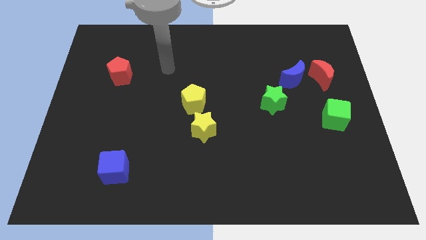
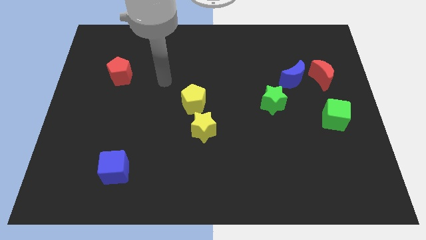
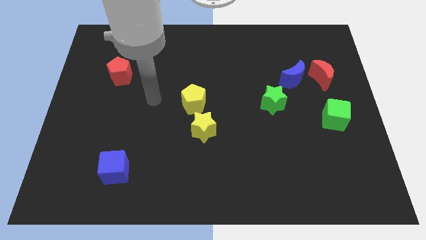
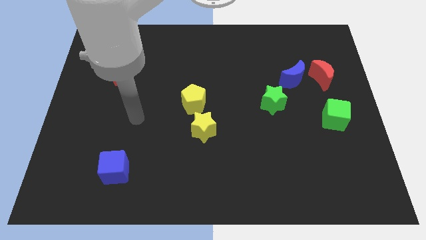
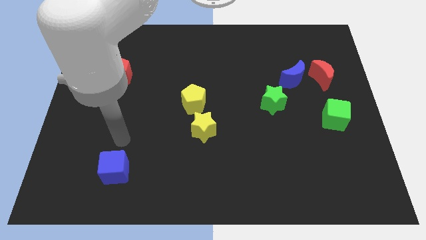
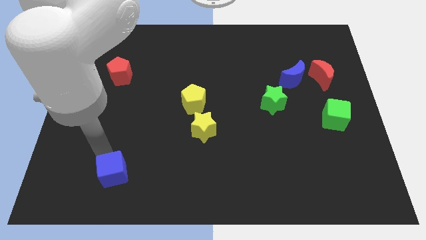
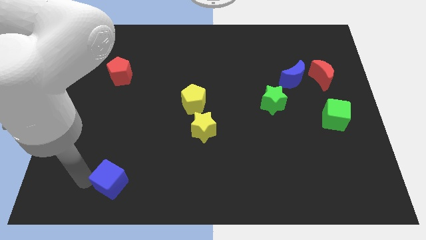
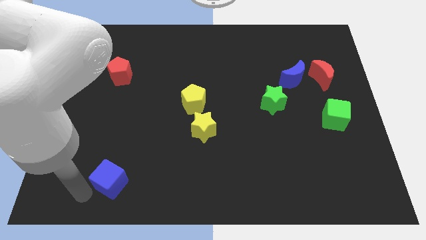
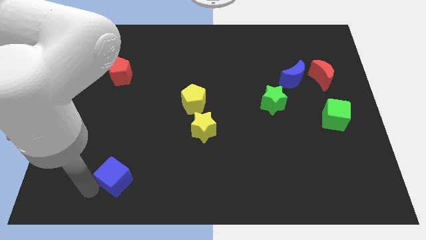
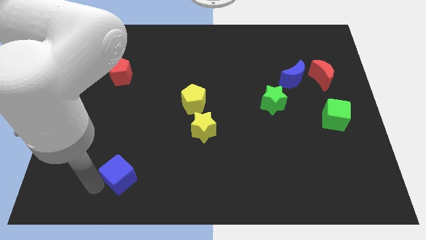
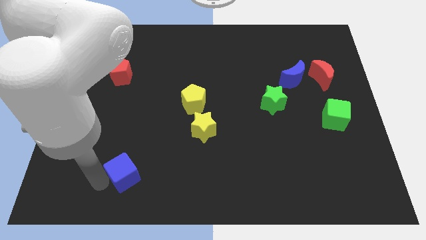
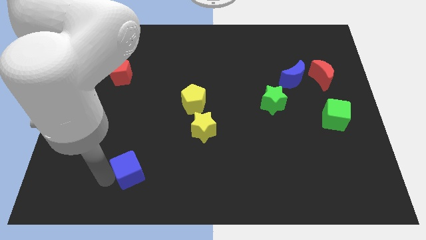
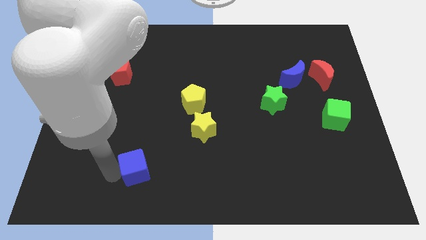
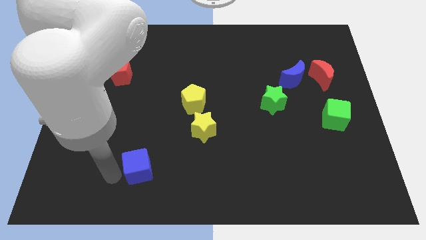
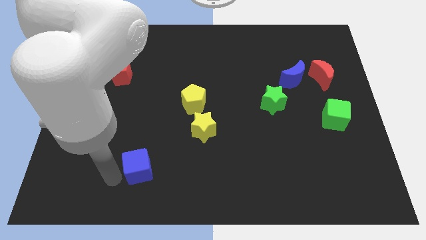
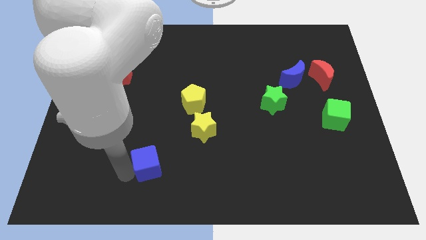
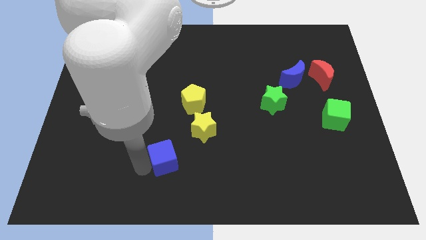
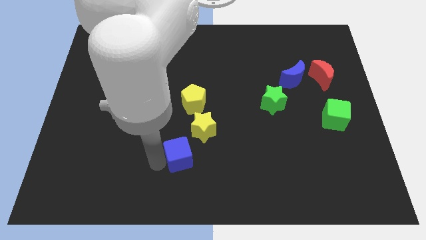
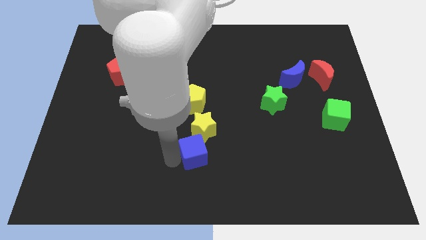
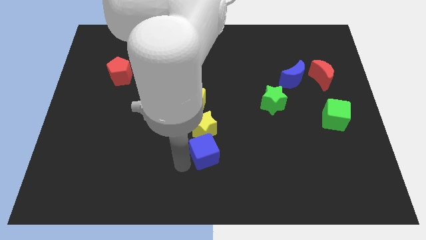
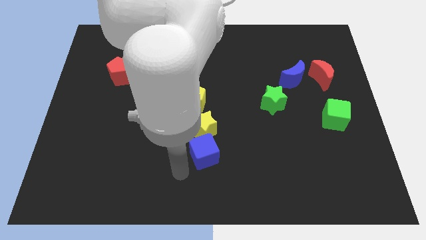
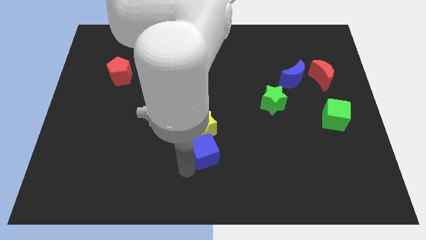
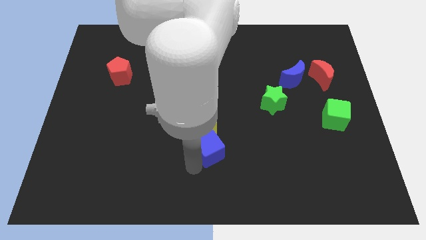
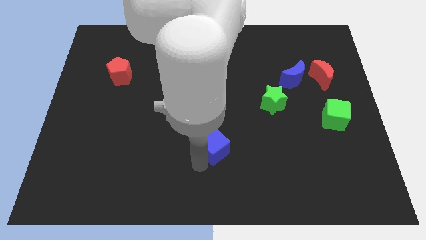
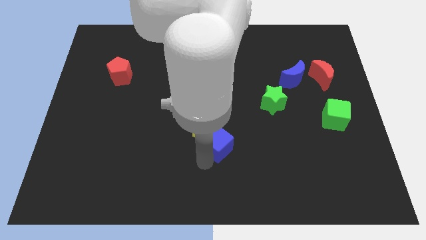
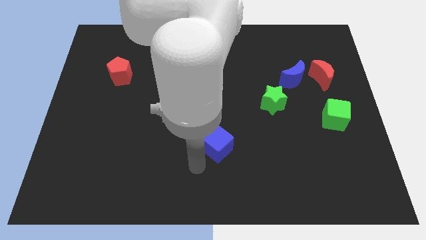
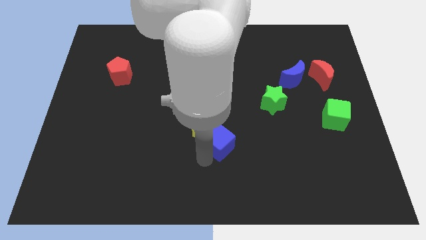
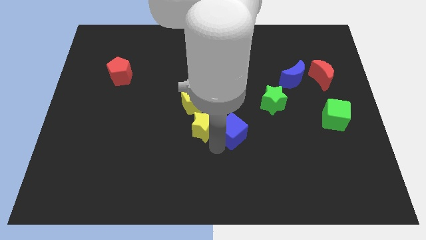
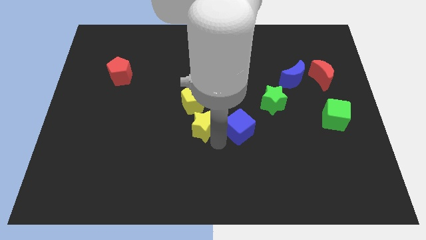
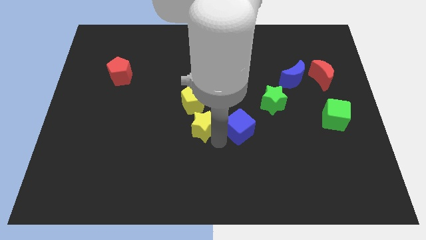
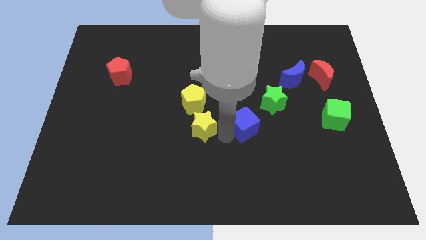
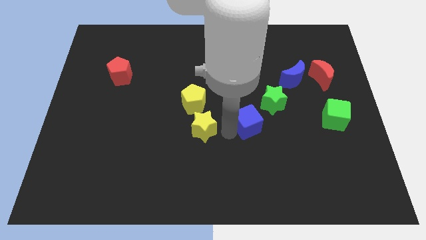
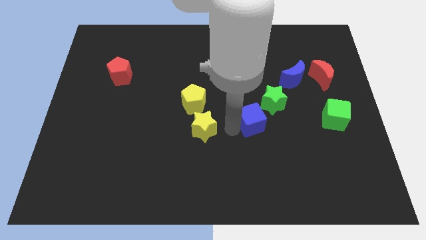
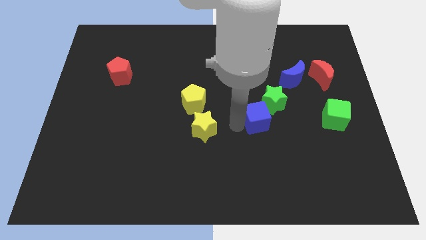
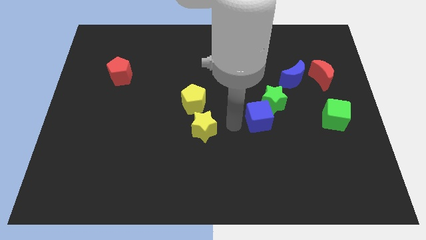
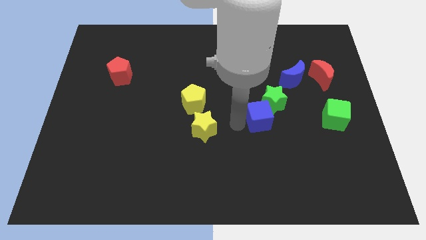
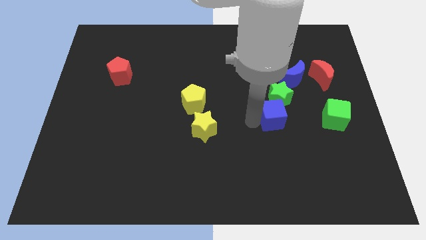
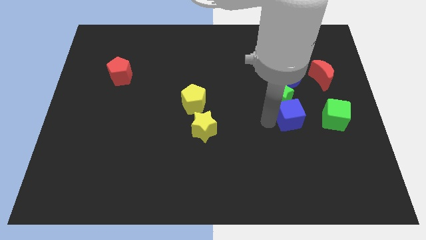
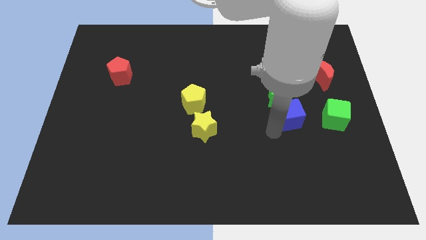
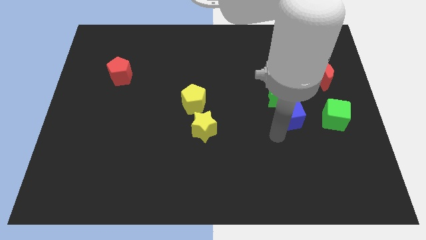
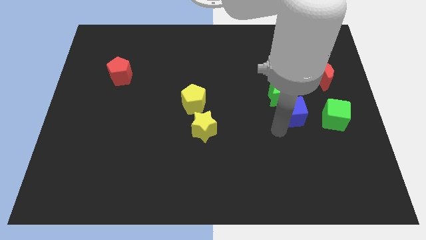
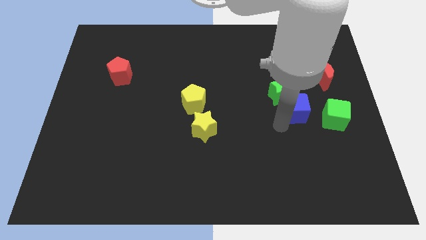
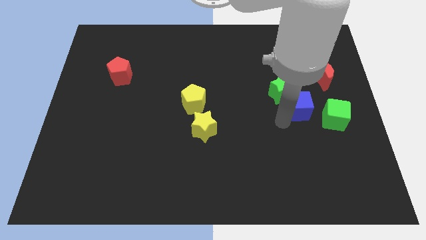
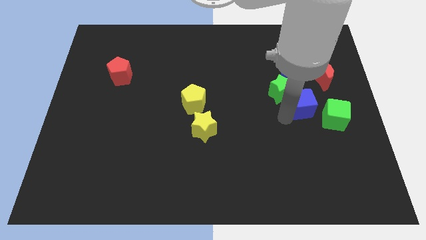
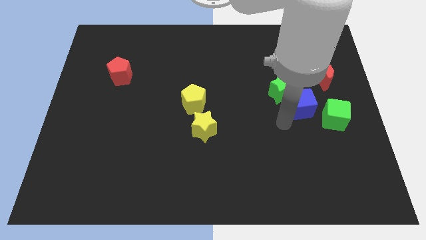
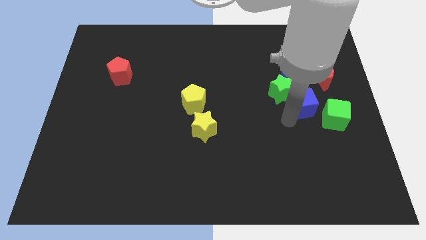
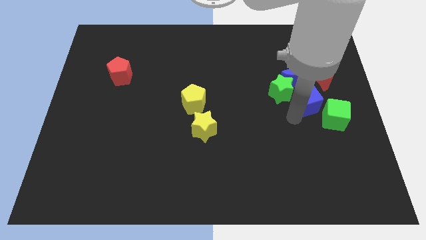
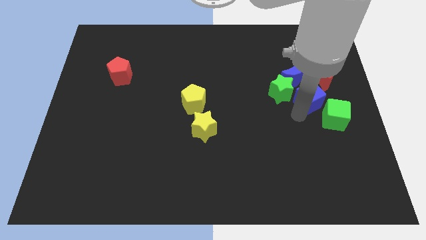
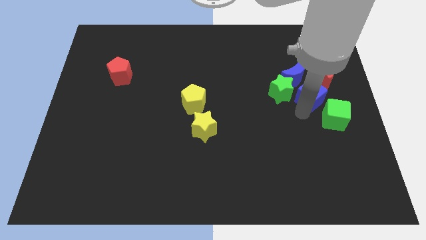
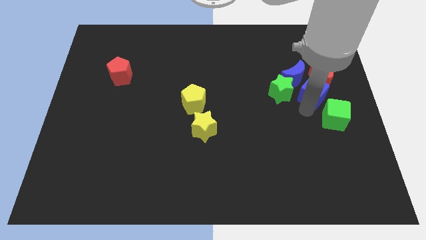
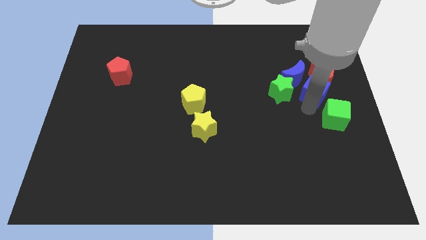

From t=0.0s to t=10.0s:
move the blue cube next to the red moon

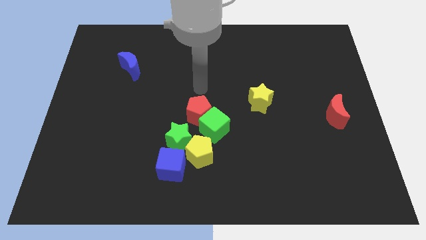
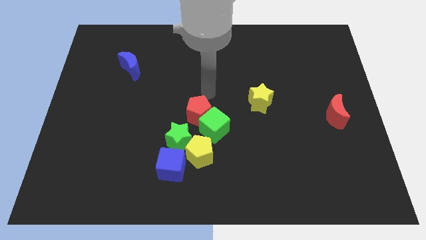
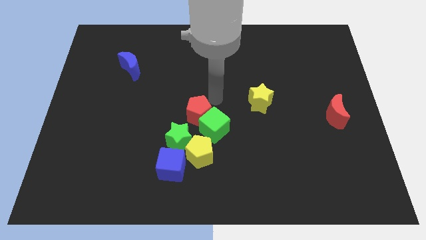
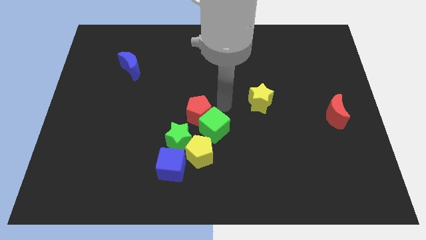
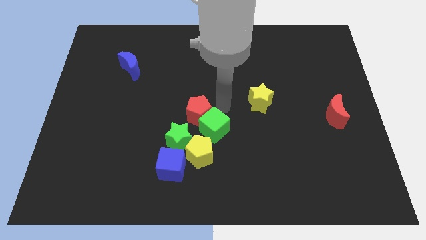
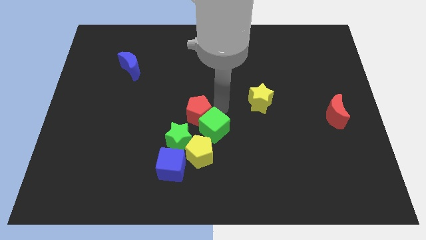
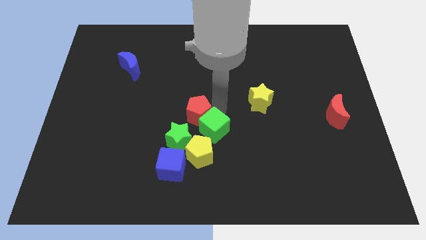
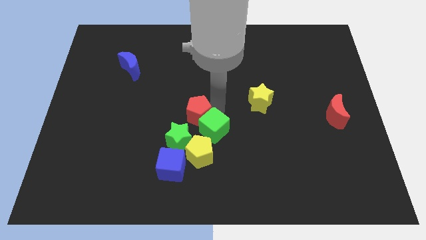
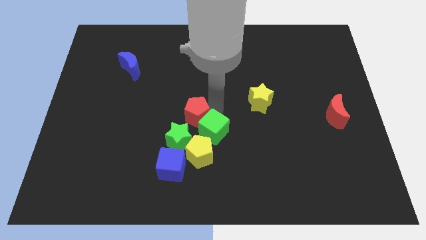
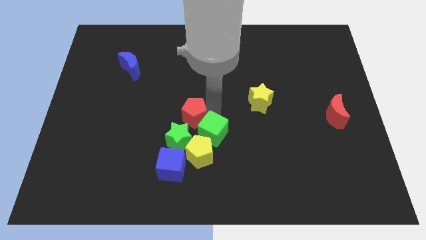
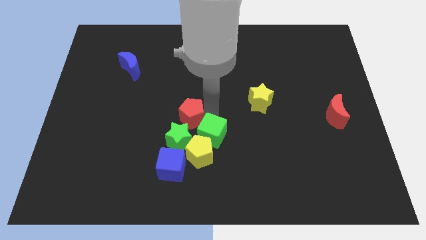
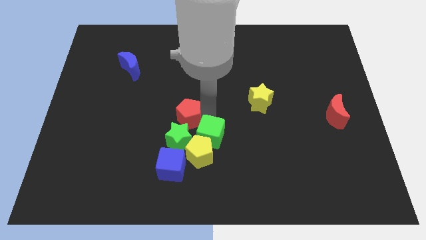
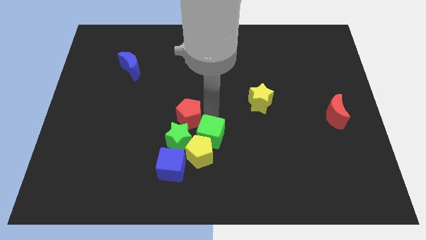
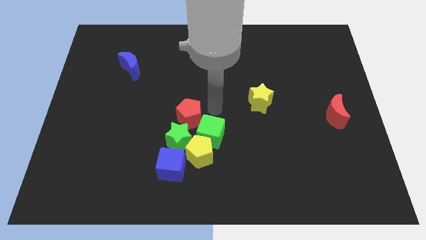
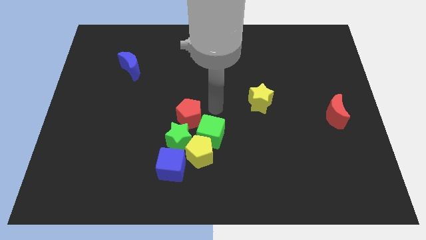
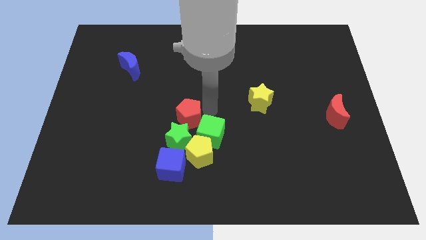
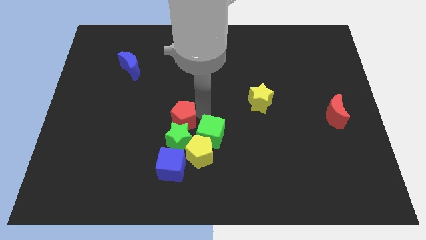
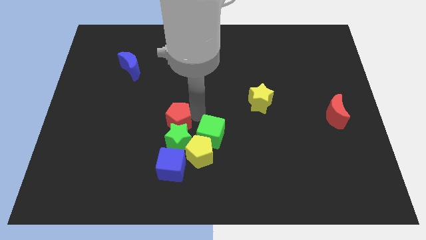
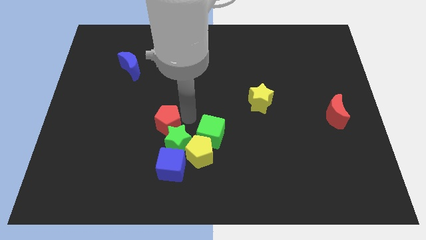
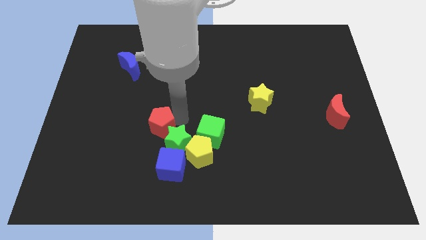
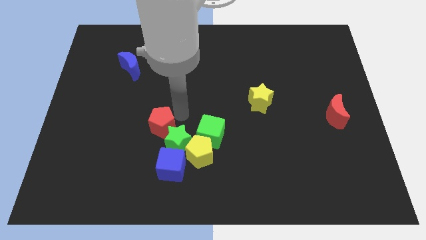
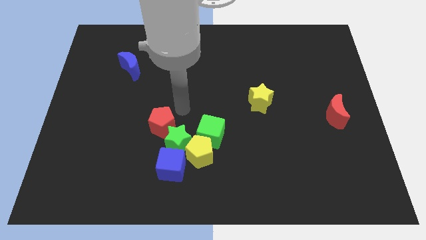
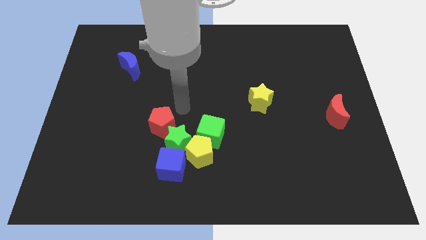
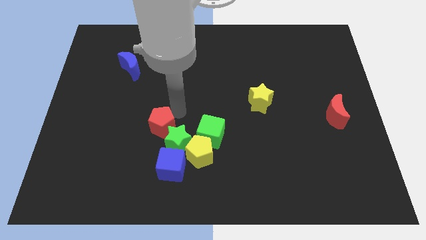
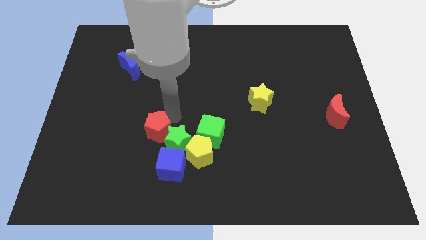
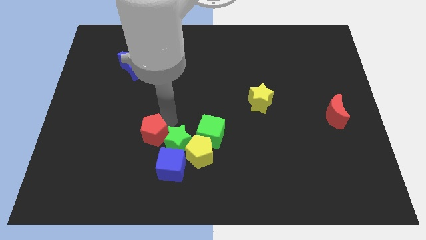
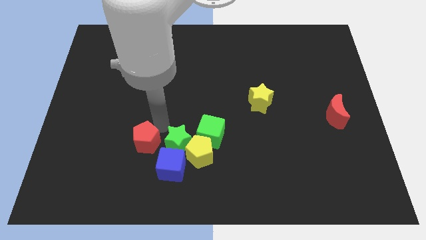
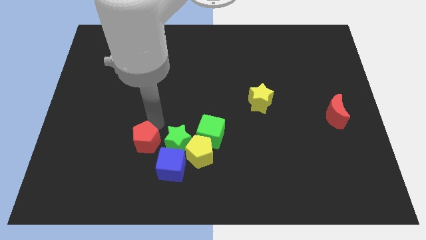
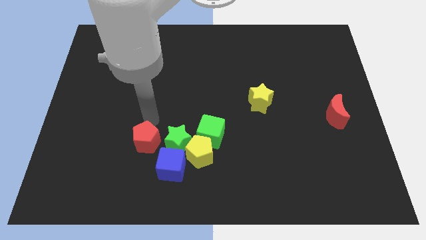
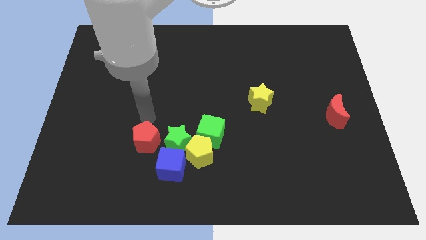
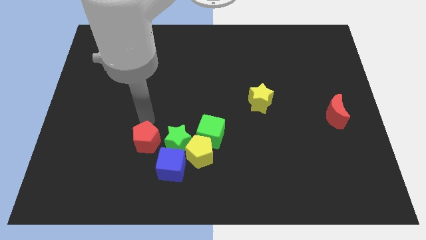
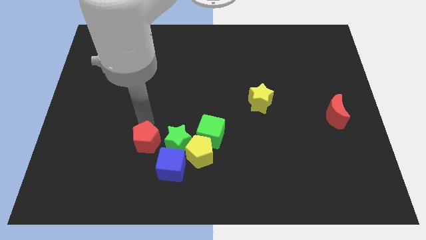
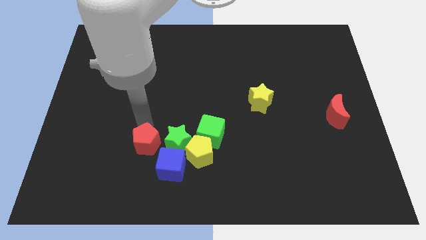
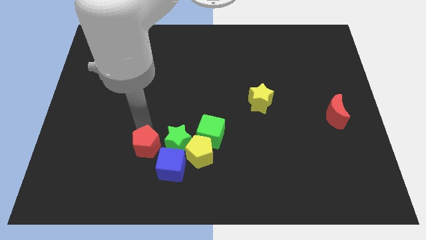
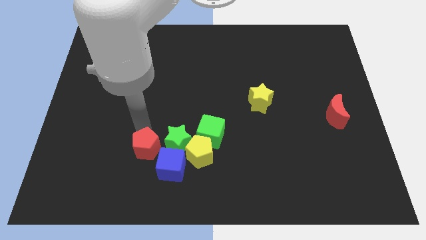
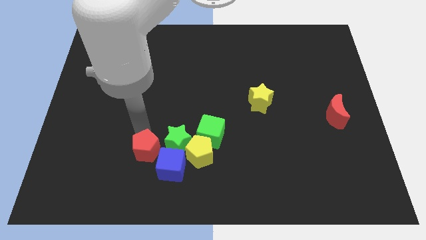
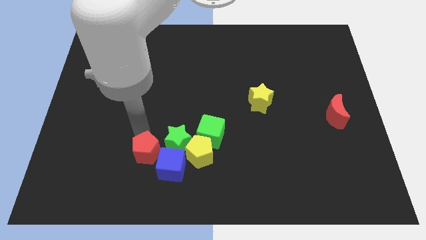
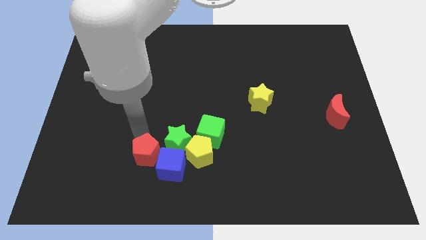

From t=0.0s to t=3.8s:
move the red pentagon next to the blue cube
